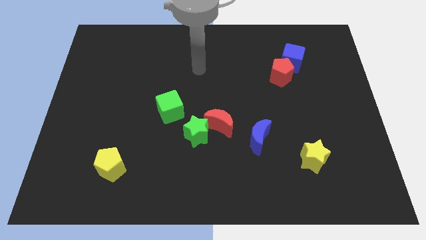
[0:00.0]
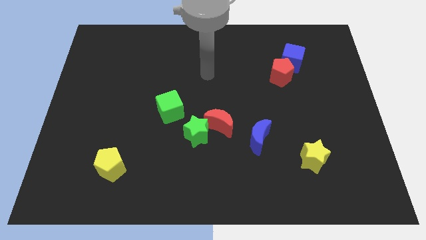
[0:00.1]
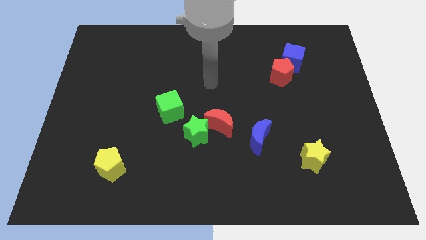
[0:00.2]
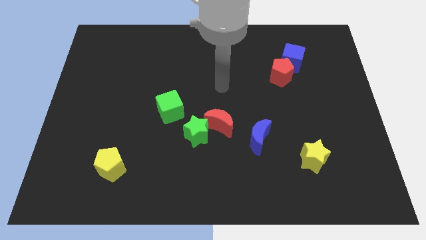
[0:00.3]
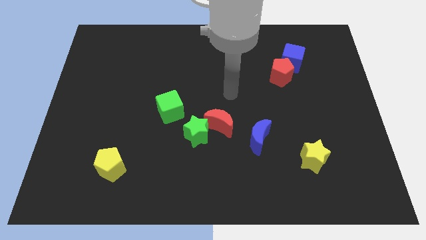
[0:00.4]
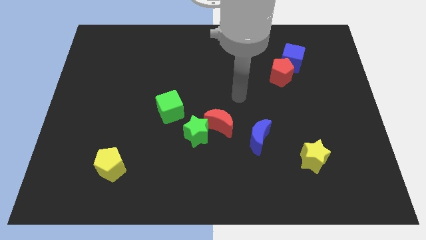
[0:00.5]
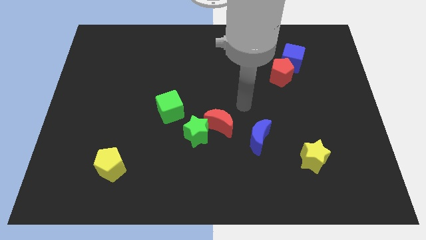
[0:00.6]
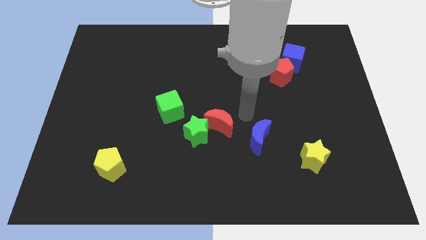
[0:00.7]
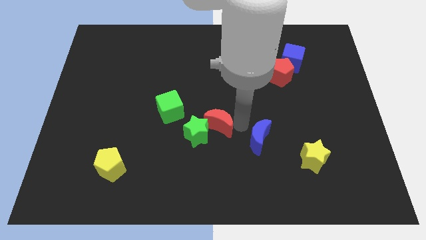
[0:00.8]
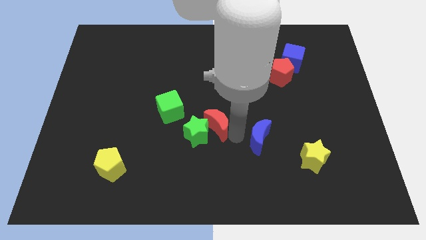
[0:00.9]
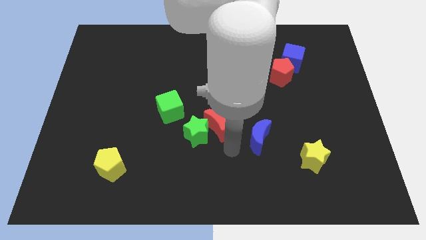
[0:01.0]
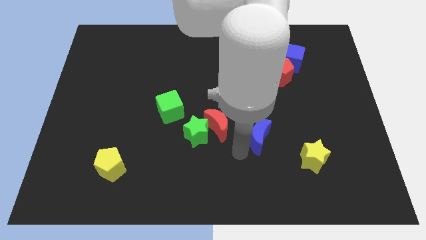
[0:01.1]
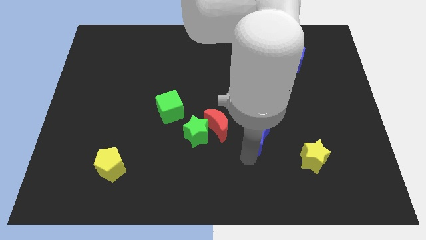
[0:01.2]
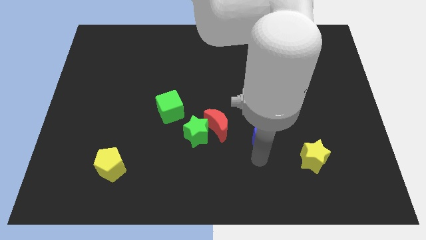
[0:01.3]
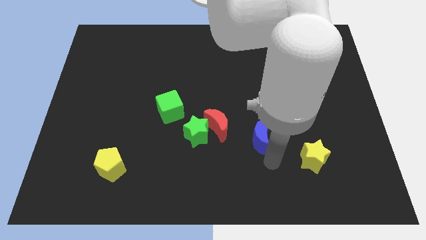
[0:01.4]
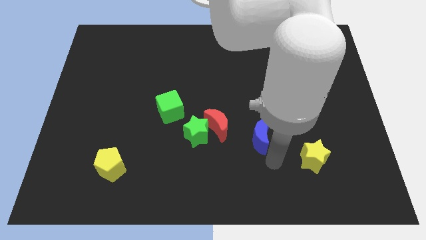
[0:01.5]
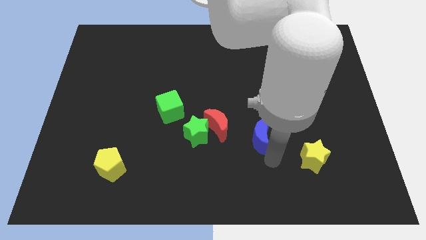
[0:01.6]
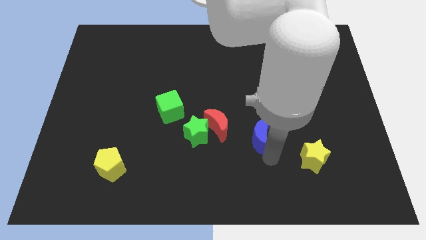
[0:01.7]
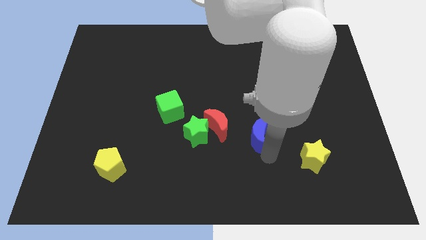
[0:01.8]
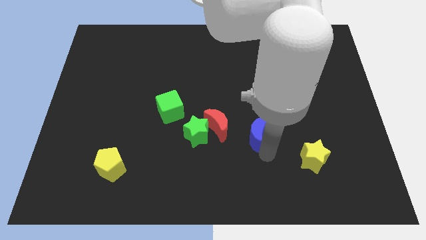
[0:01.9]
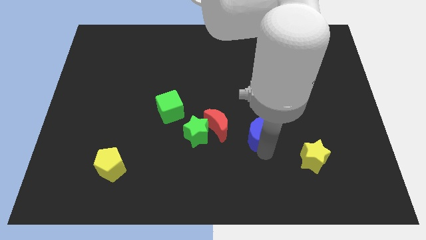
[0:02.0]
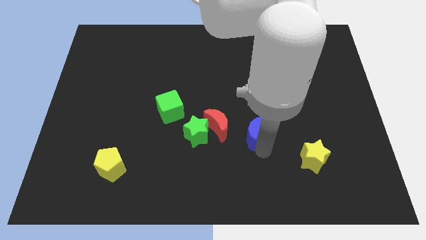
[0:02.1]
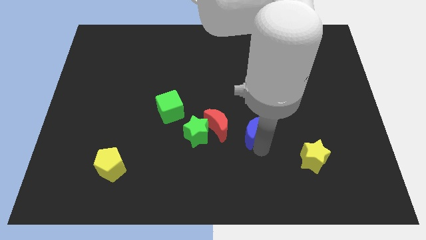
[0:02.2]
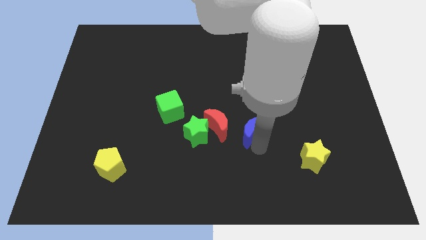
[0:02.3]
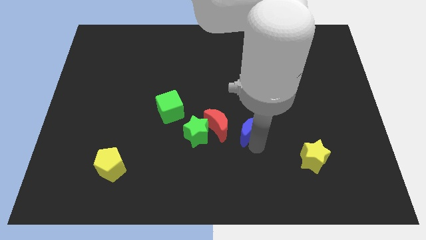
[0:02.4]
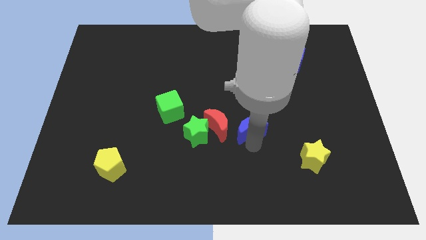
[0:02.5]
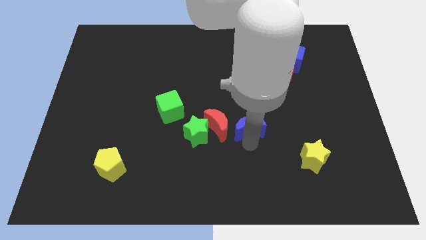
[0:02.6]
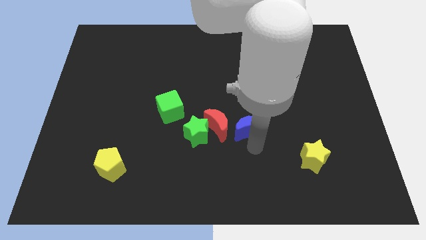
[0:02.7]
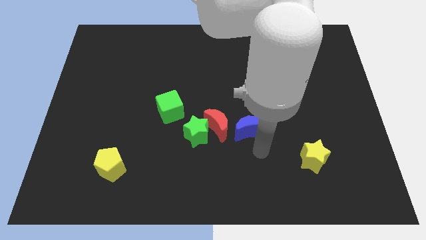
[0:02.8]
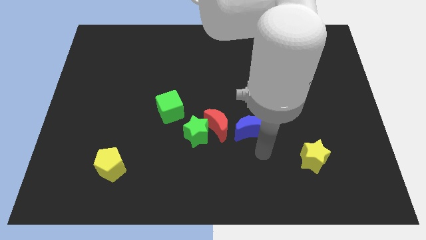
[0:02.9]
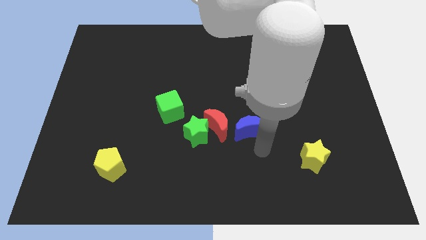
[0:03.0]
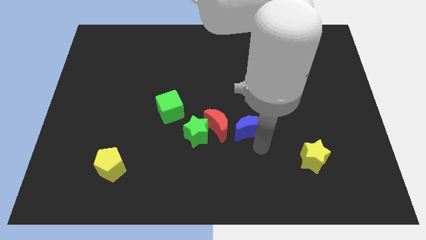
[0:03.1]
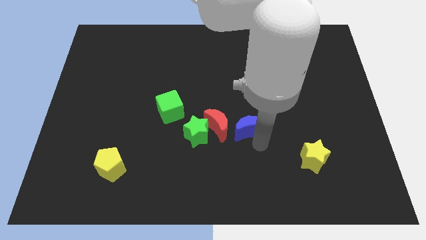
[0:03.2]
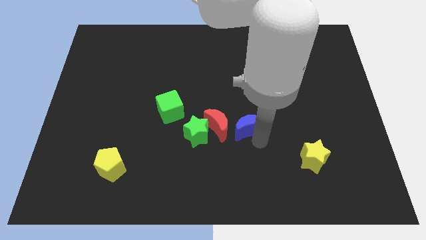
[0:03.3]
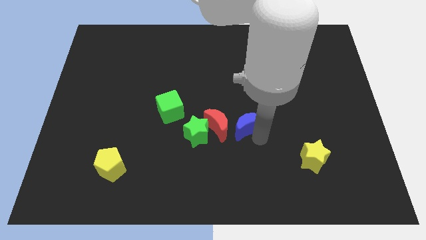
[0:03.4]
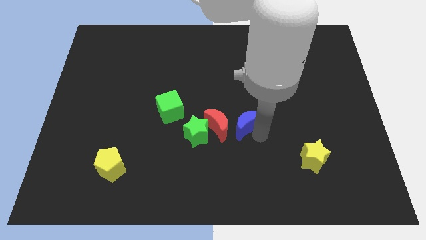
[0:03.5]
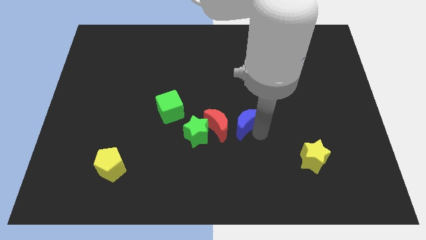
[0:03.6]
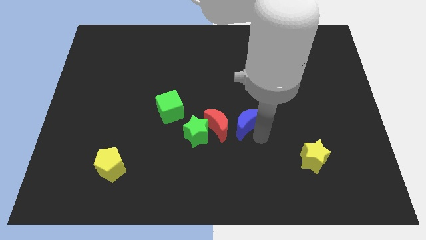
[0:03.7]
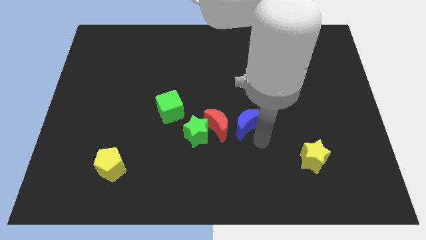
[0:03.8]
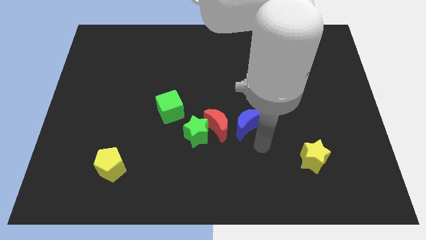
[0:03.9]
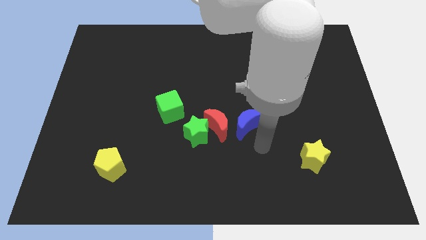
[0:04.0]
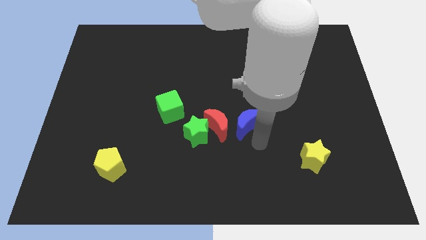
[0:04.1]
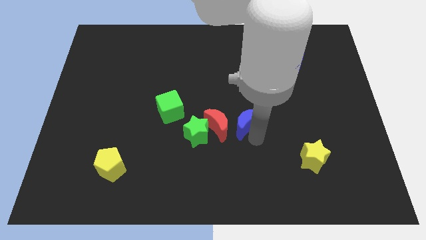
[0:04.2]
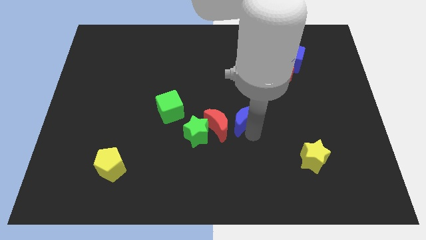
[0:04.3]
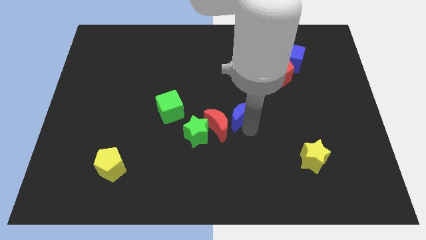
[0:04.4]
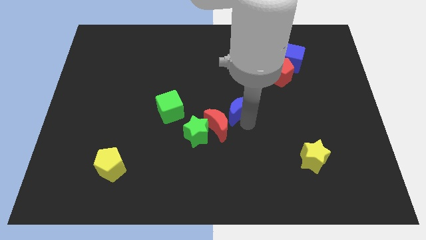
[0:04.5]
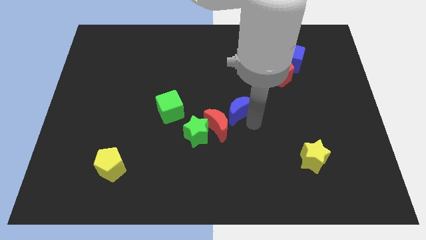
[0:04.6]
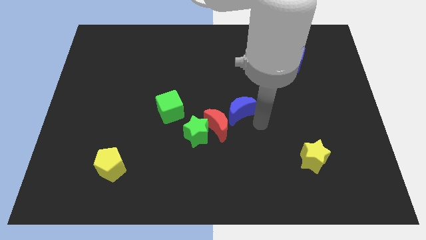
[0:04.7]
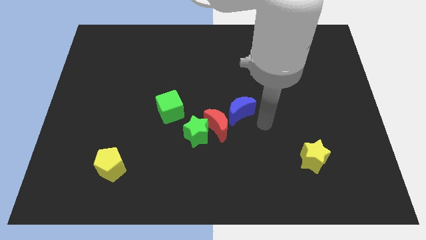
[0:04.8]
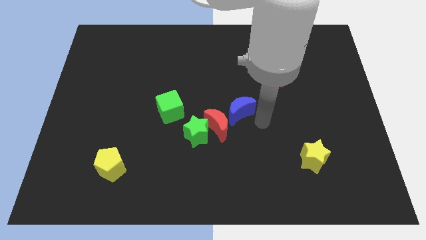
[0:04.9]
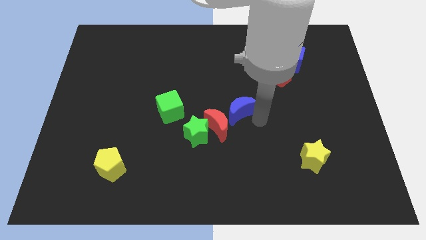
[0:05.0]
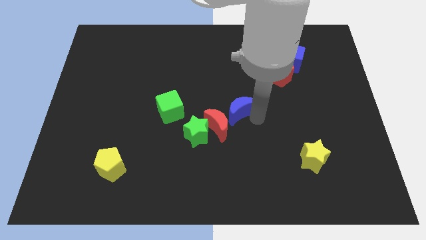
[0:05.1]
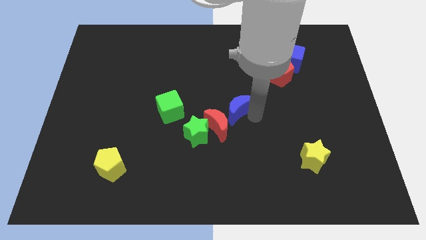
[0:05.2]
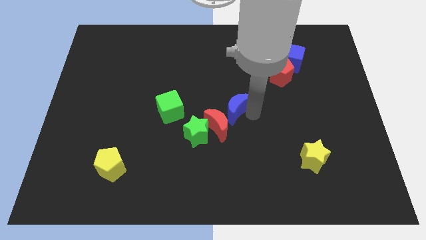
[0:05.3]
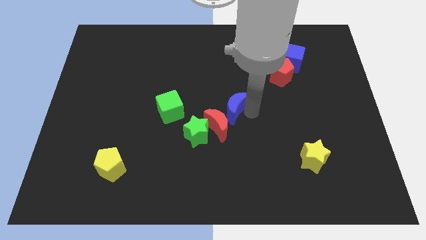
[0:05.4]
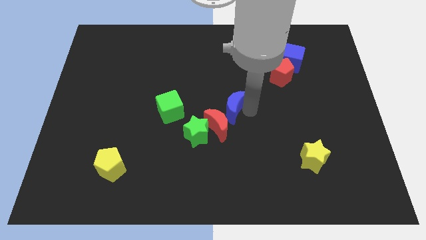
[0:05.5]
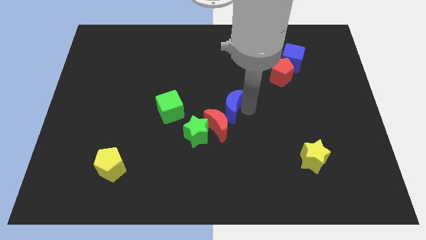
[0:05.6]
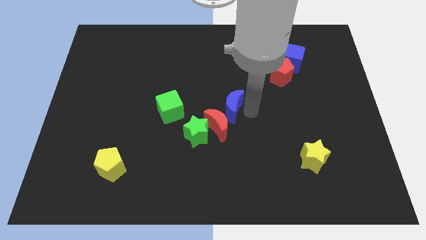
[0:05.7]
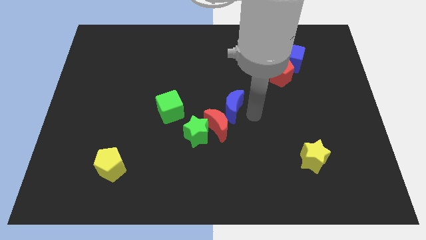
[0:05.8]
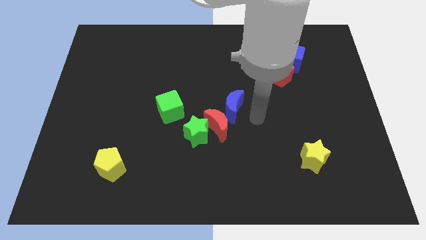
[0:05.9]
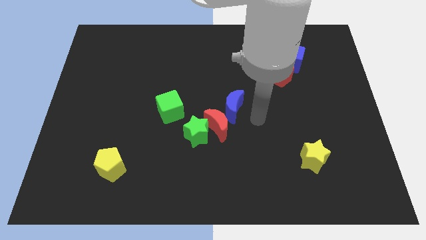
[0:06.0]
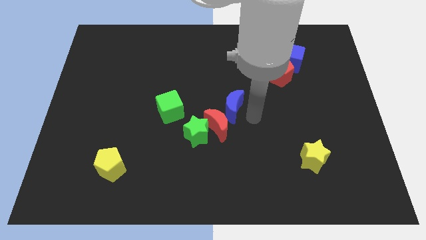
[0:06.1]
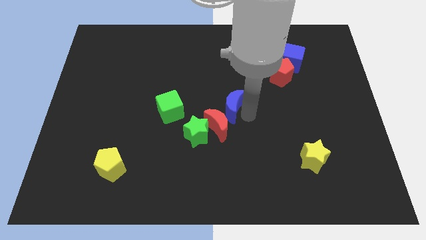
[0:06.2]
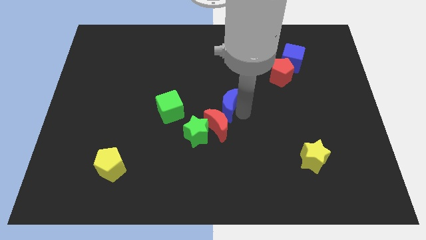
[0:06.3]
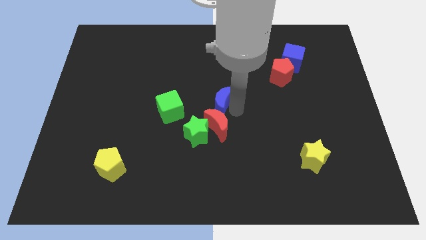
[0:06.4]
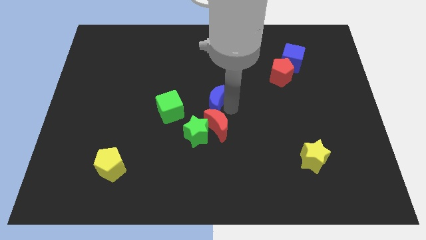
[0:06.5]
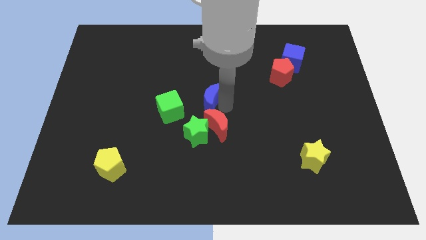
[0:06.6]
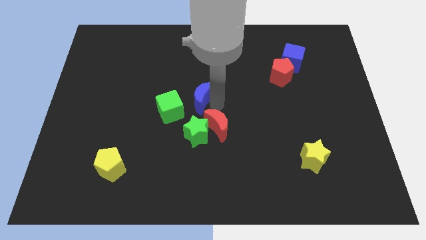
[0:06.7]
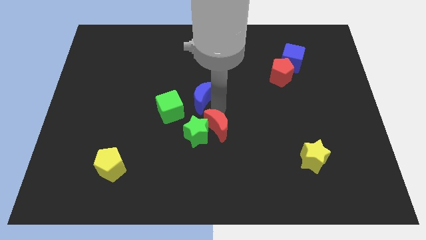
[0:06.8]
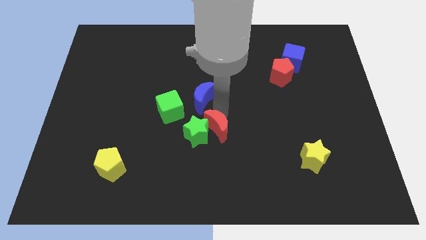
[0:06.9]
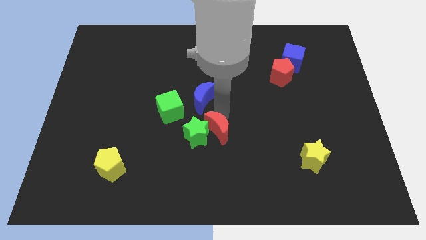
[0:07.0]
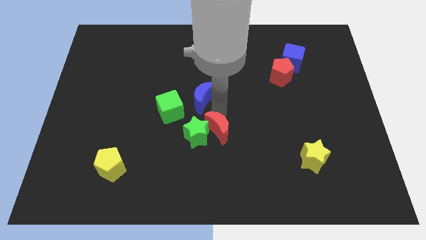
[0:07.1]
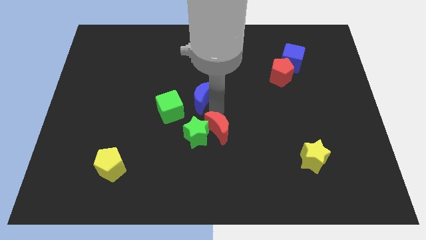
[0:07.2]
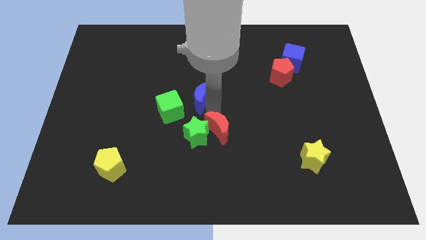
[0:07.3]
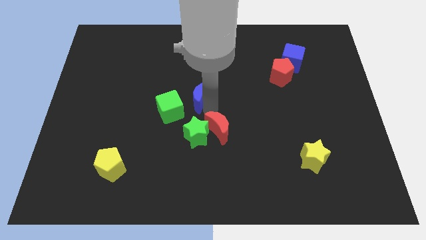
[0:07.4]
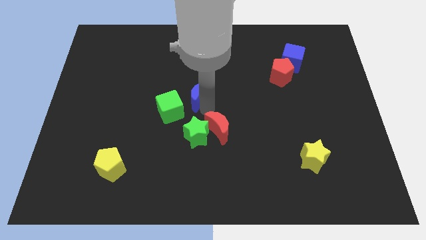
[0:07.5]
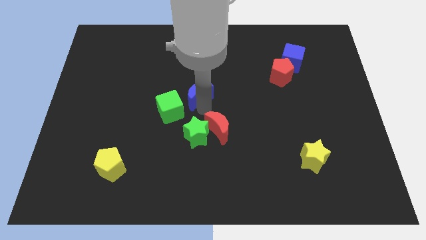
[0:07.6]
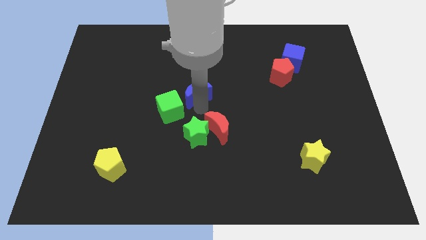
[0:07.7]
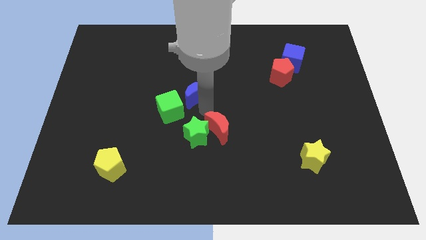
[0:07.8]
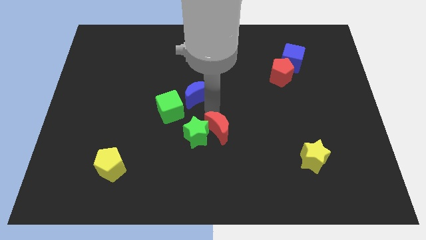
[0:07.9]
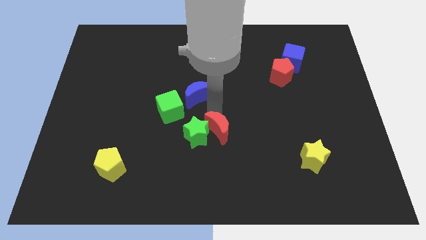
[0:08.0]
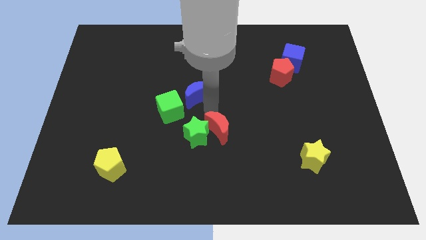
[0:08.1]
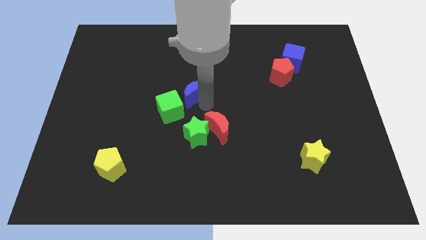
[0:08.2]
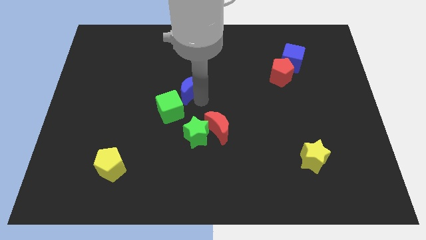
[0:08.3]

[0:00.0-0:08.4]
slide the blue moon upwards and left

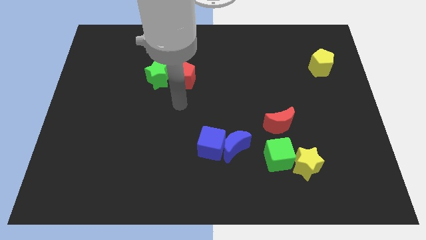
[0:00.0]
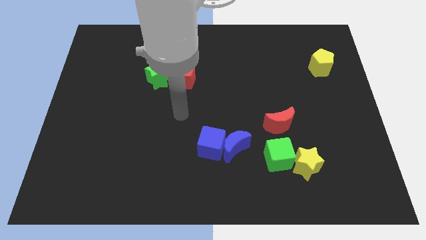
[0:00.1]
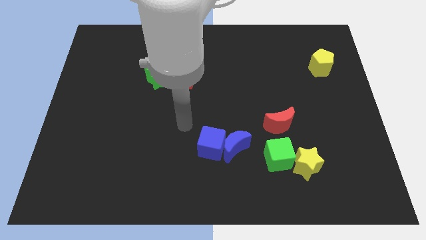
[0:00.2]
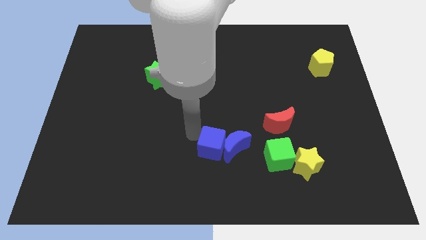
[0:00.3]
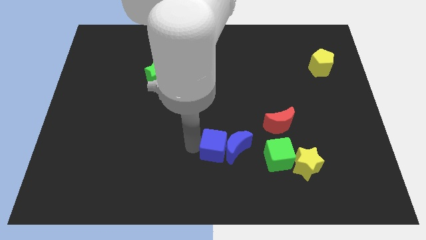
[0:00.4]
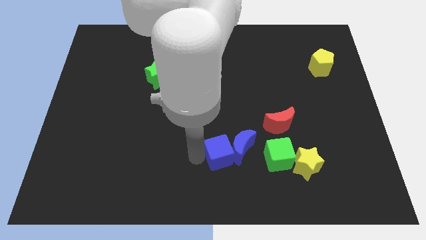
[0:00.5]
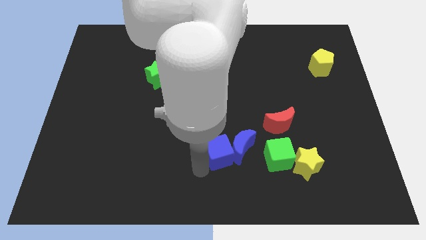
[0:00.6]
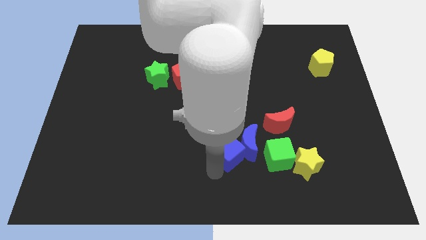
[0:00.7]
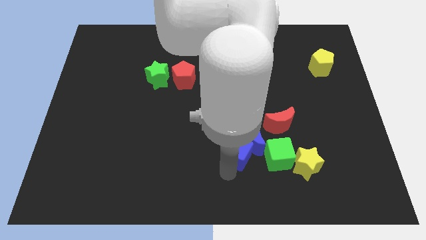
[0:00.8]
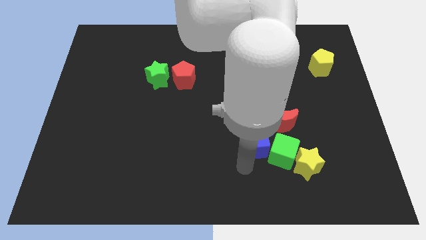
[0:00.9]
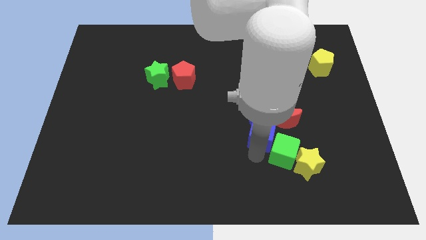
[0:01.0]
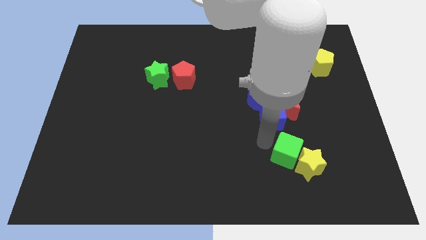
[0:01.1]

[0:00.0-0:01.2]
move the blue moon slightly up
